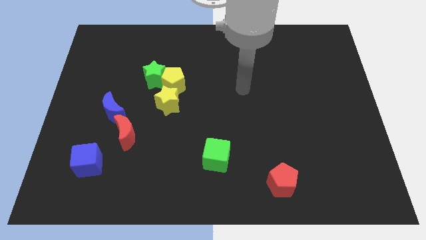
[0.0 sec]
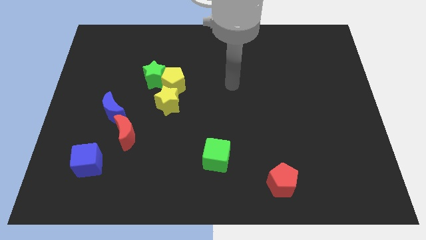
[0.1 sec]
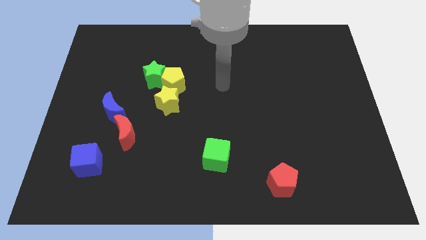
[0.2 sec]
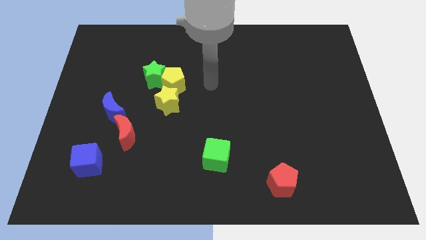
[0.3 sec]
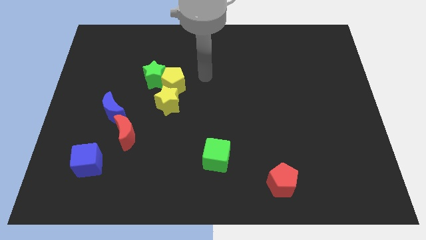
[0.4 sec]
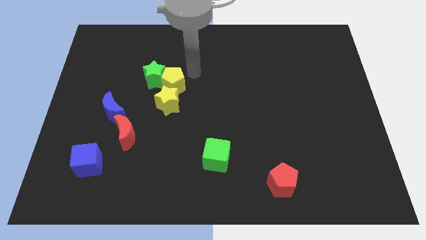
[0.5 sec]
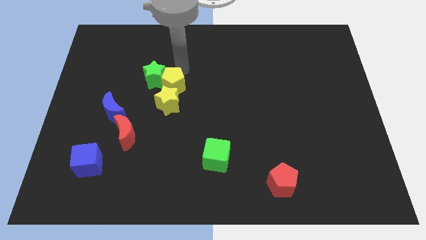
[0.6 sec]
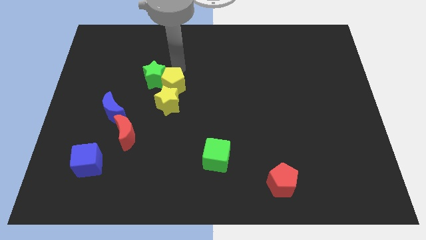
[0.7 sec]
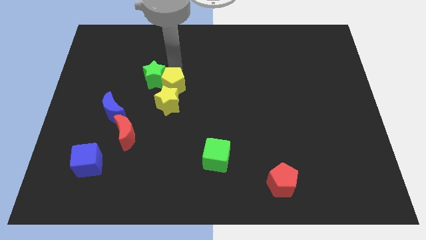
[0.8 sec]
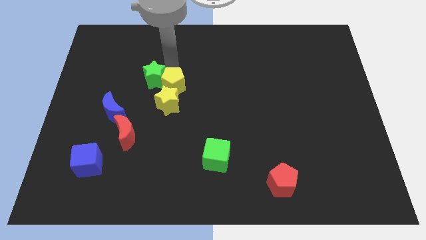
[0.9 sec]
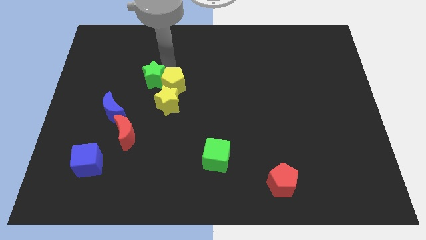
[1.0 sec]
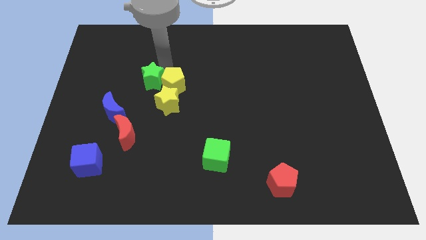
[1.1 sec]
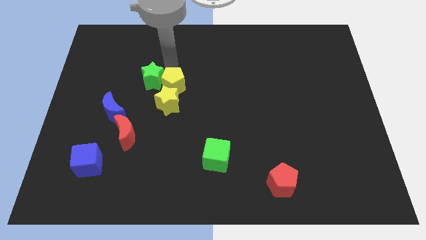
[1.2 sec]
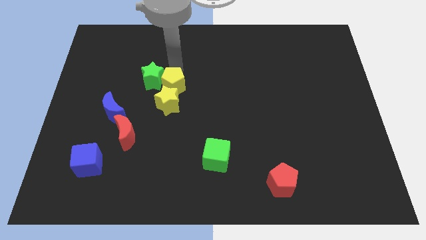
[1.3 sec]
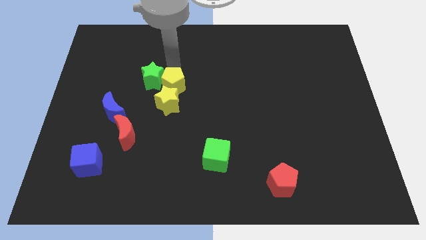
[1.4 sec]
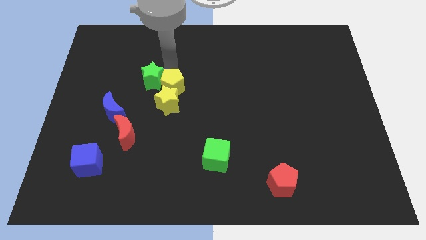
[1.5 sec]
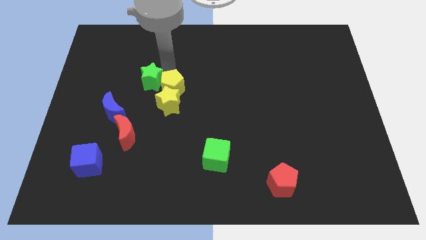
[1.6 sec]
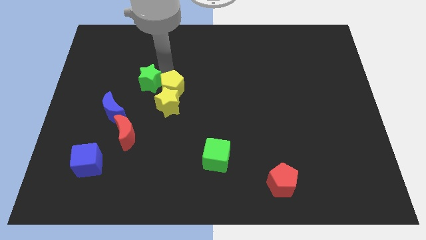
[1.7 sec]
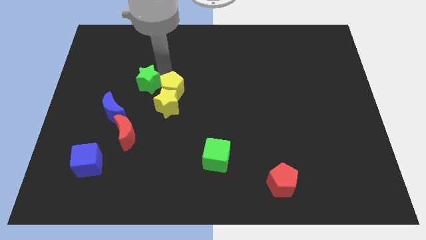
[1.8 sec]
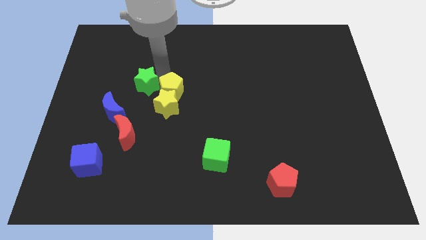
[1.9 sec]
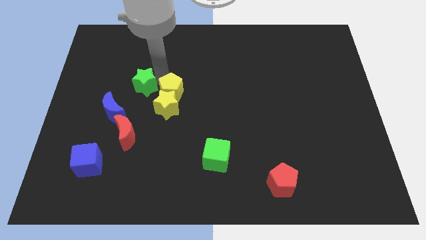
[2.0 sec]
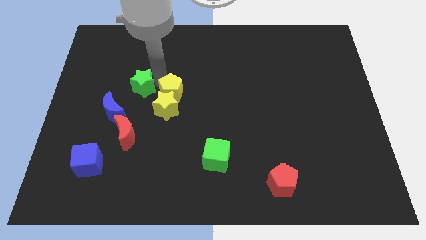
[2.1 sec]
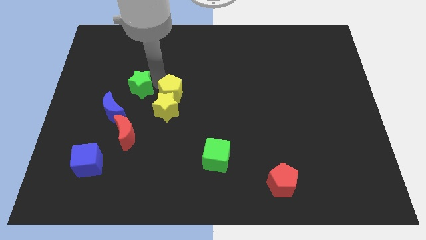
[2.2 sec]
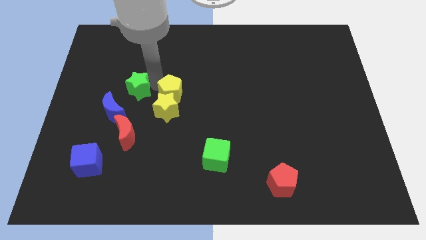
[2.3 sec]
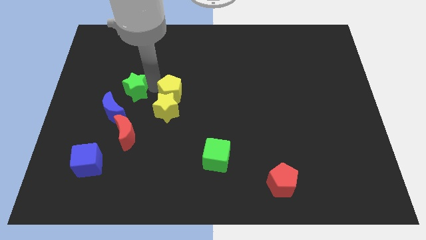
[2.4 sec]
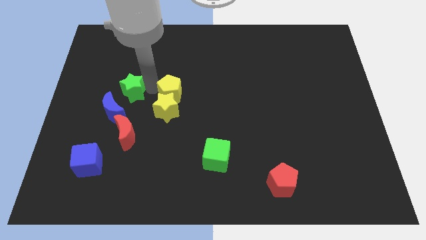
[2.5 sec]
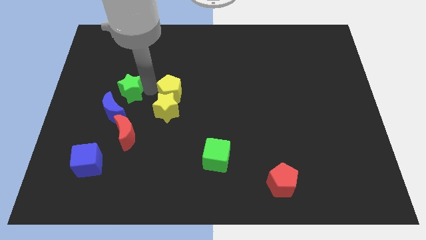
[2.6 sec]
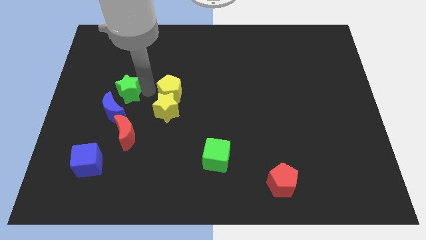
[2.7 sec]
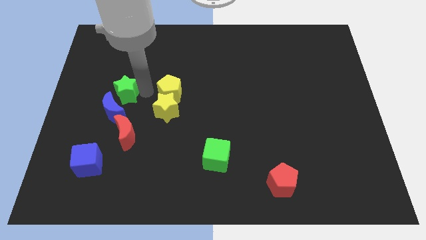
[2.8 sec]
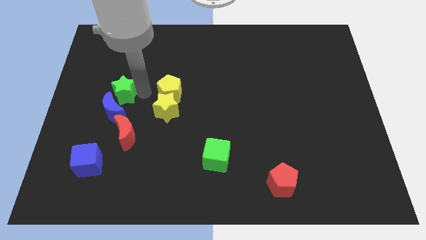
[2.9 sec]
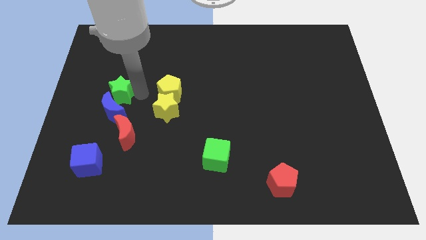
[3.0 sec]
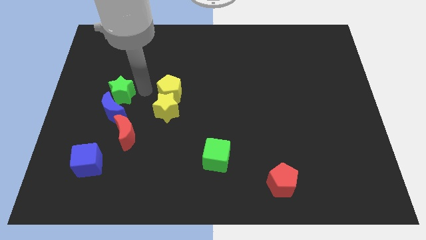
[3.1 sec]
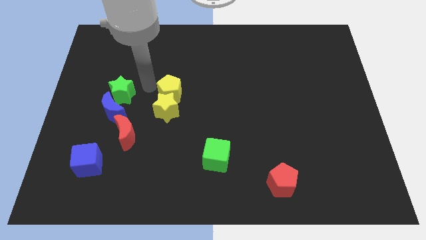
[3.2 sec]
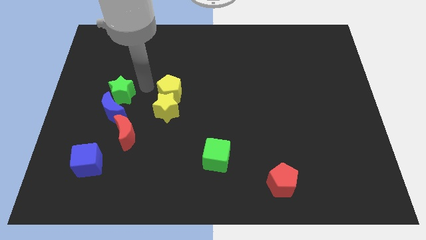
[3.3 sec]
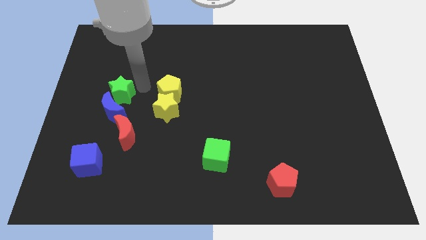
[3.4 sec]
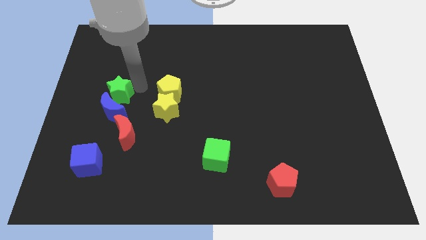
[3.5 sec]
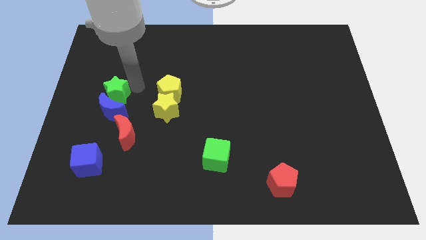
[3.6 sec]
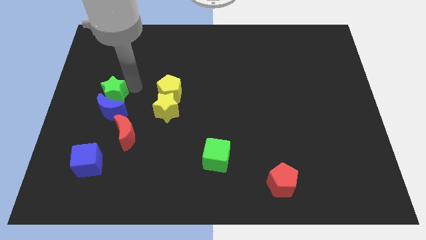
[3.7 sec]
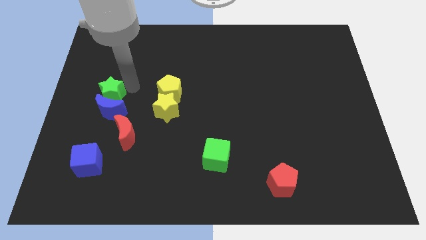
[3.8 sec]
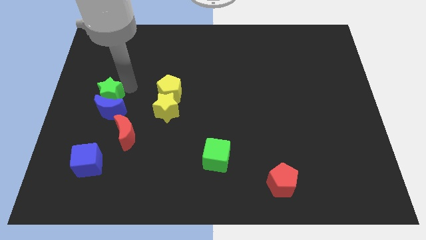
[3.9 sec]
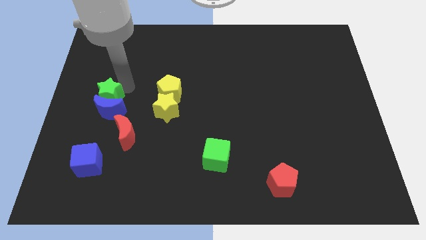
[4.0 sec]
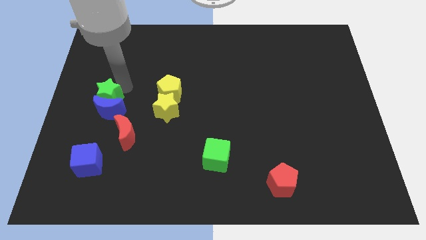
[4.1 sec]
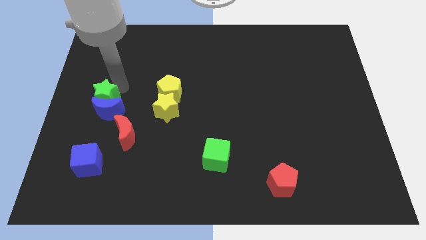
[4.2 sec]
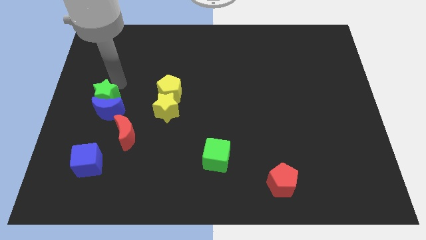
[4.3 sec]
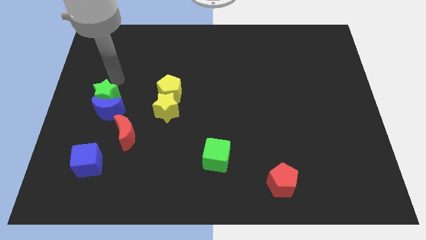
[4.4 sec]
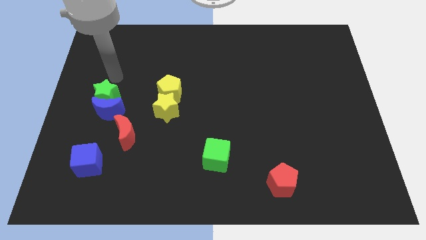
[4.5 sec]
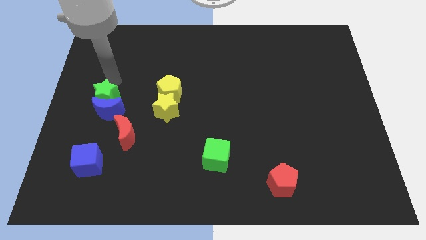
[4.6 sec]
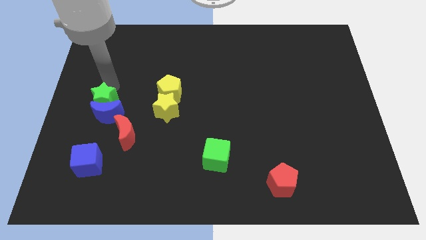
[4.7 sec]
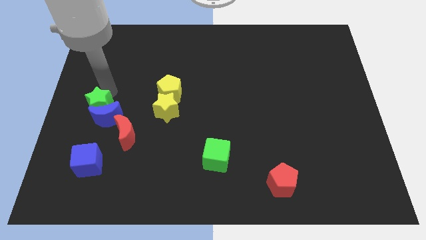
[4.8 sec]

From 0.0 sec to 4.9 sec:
move the green star to the top side of the blue cube

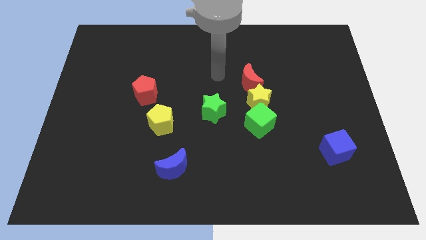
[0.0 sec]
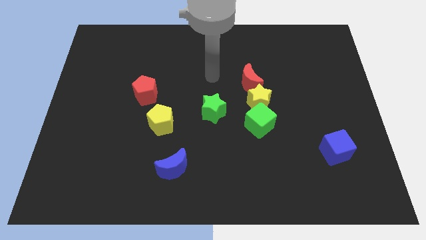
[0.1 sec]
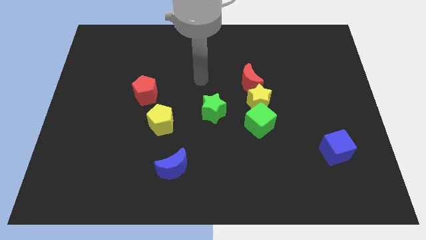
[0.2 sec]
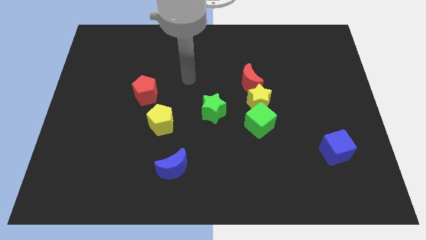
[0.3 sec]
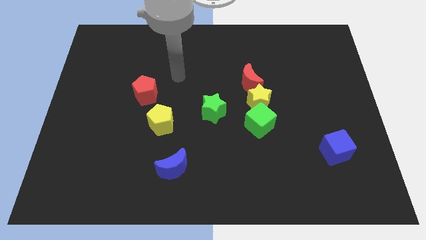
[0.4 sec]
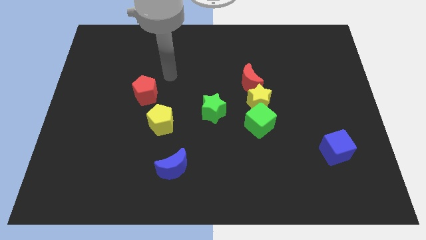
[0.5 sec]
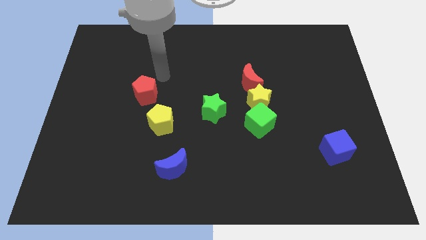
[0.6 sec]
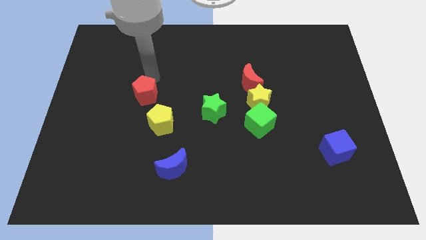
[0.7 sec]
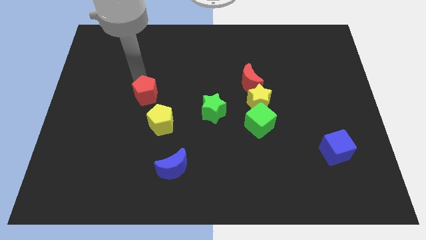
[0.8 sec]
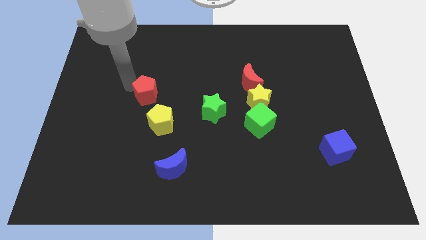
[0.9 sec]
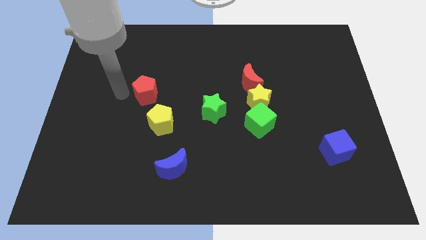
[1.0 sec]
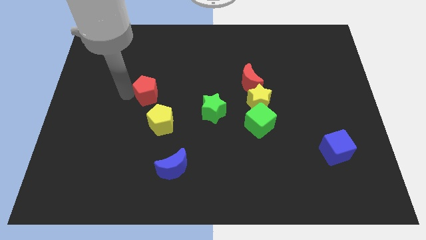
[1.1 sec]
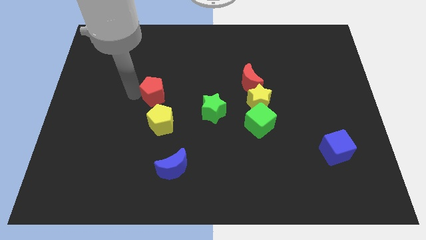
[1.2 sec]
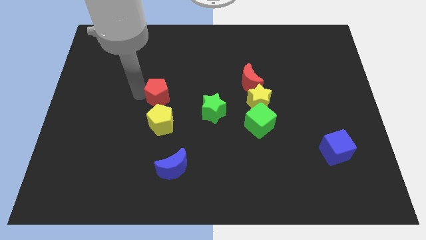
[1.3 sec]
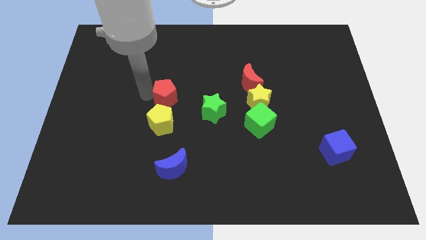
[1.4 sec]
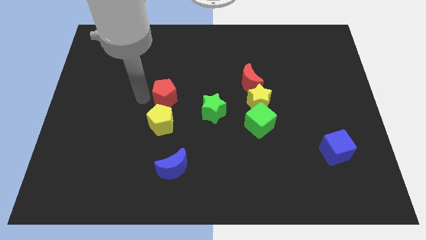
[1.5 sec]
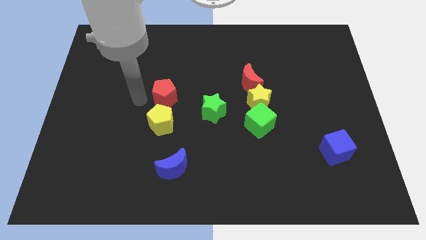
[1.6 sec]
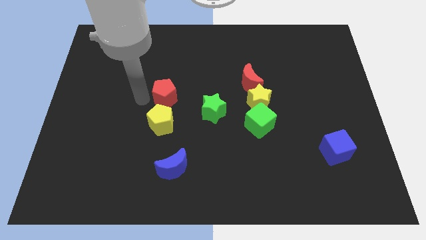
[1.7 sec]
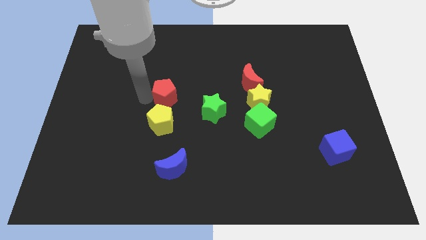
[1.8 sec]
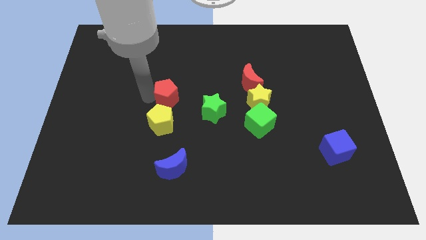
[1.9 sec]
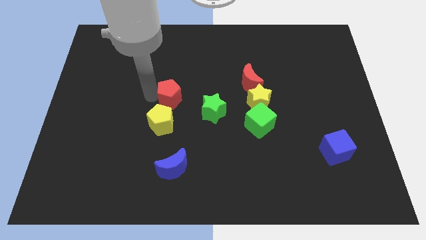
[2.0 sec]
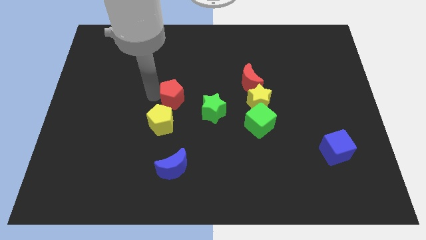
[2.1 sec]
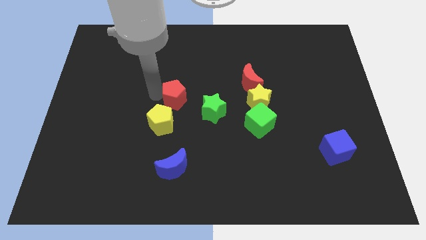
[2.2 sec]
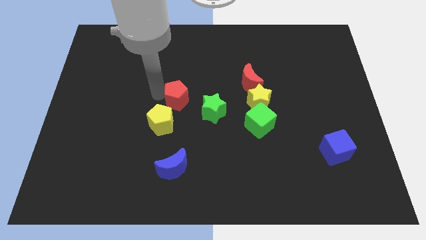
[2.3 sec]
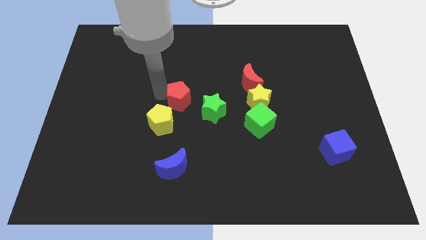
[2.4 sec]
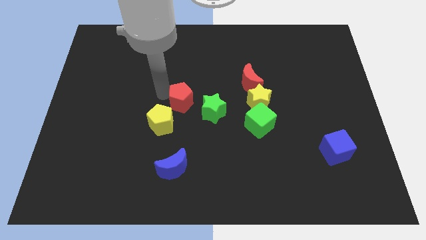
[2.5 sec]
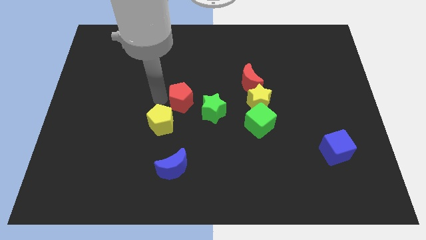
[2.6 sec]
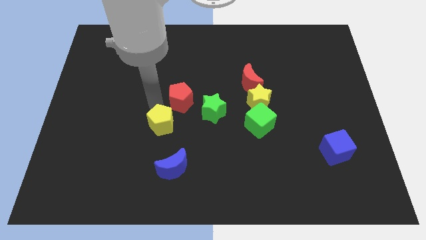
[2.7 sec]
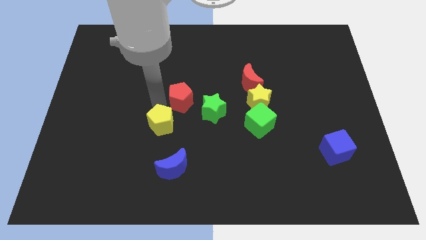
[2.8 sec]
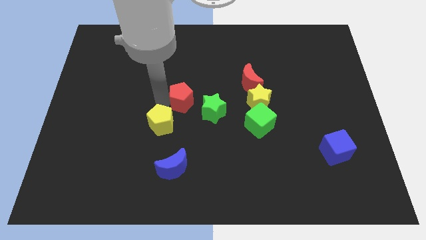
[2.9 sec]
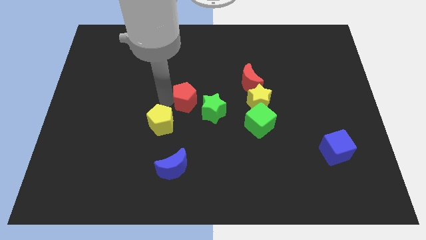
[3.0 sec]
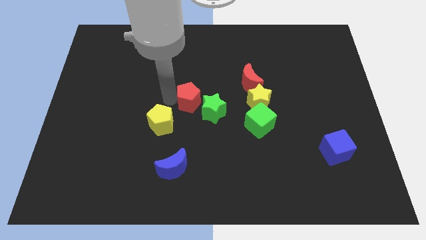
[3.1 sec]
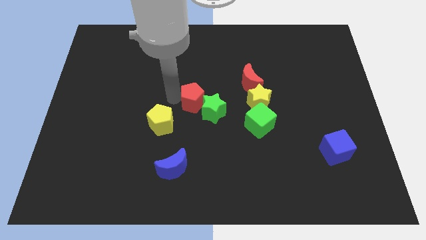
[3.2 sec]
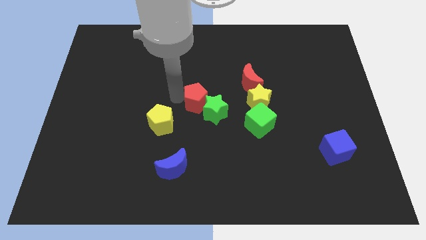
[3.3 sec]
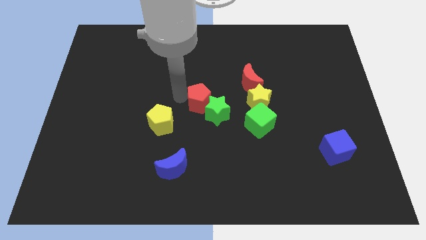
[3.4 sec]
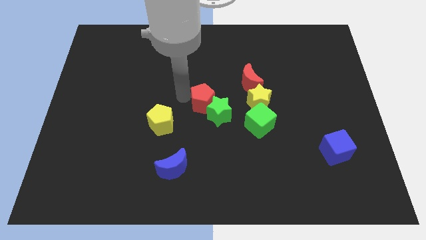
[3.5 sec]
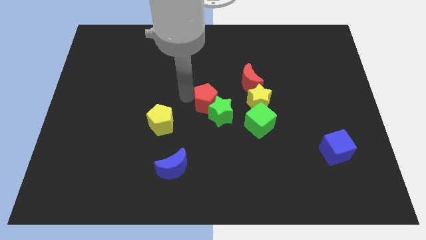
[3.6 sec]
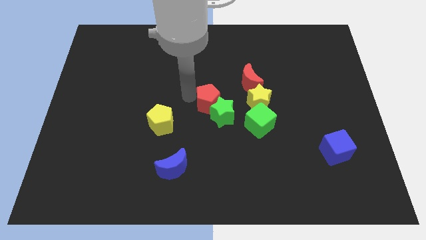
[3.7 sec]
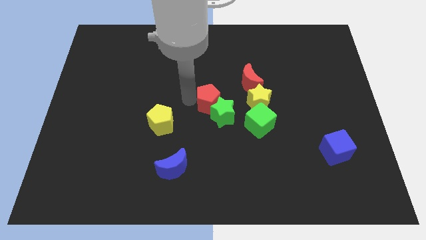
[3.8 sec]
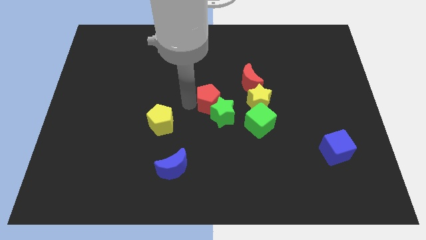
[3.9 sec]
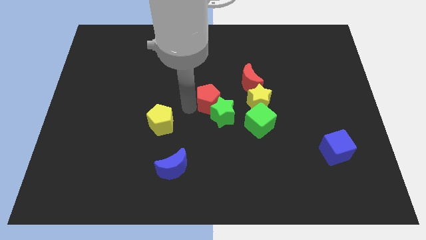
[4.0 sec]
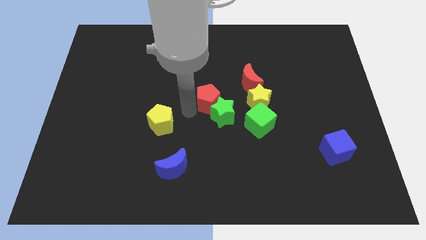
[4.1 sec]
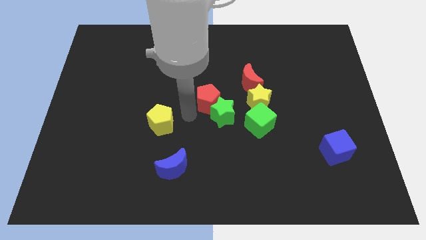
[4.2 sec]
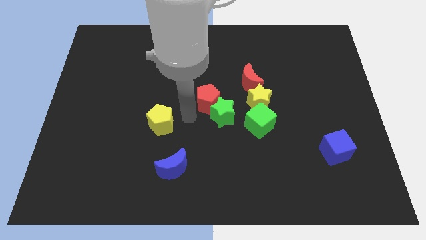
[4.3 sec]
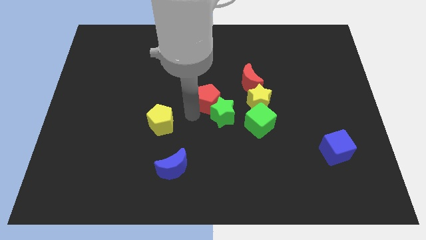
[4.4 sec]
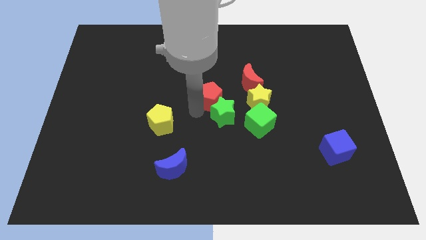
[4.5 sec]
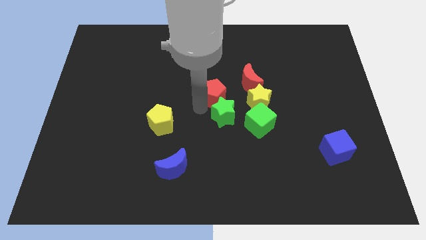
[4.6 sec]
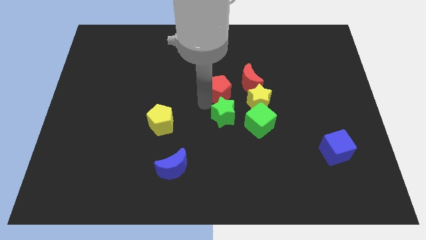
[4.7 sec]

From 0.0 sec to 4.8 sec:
move the red pentagon diagonally up and to the left of the yellow star
